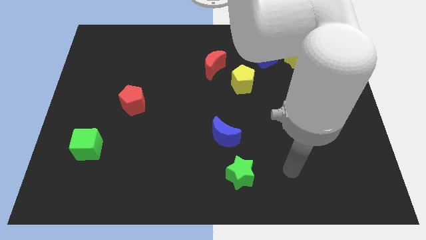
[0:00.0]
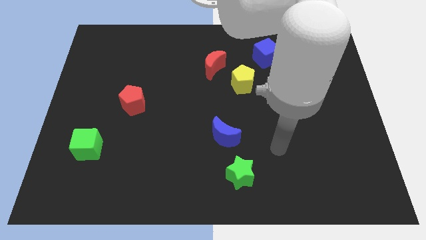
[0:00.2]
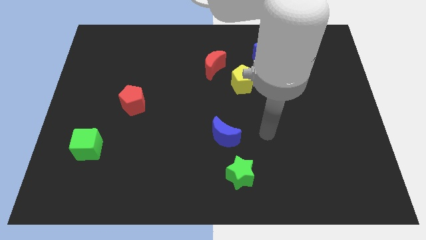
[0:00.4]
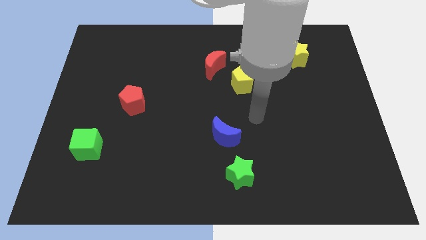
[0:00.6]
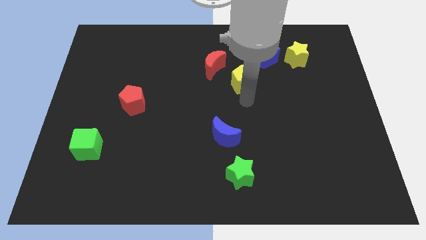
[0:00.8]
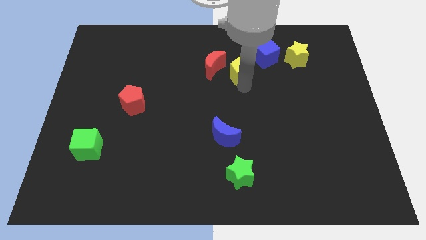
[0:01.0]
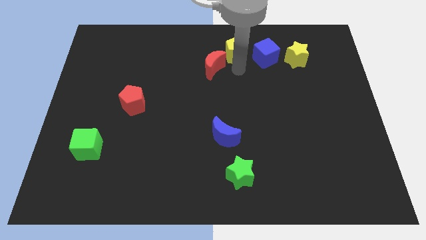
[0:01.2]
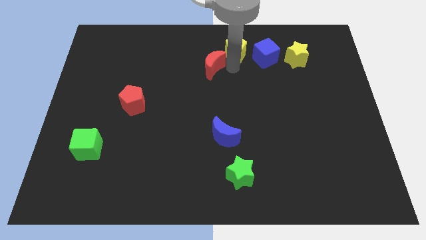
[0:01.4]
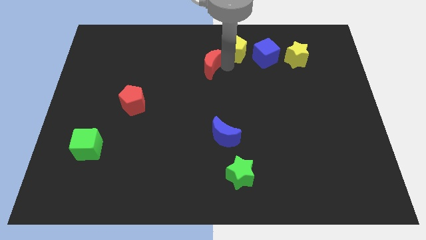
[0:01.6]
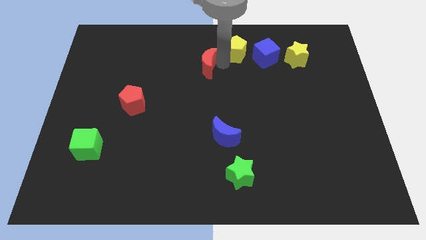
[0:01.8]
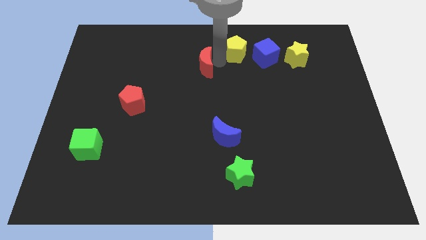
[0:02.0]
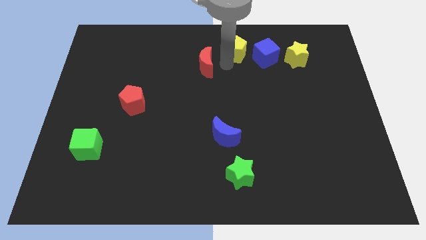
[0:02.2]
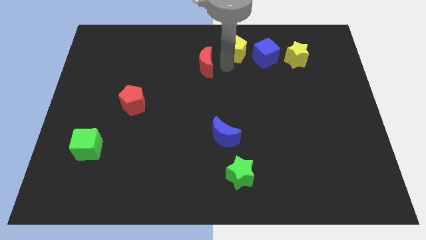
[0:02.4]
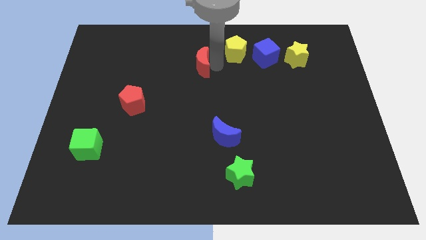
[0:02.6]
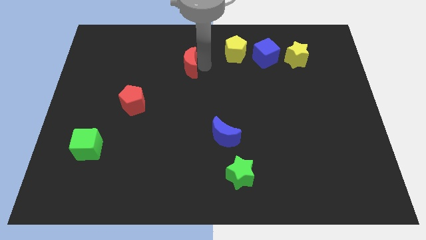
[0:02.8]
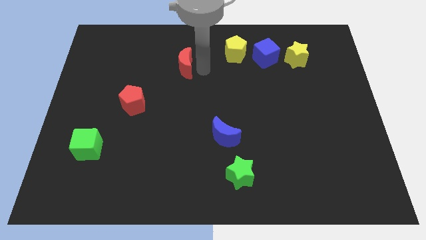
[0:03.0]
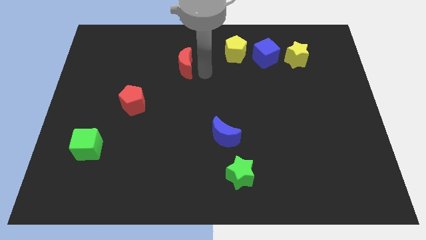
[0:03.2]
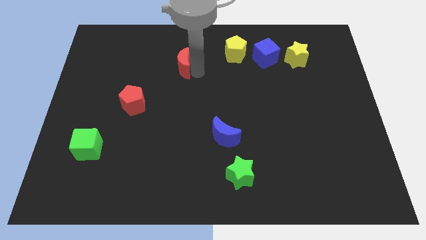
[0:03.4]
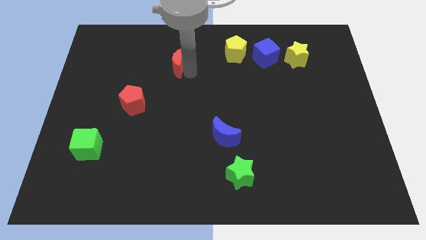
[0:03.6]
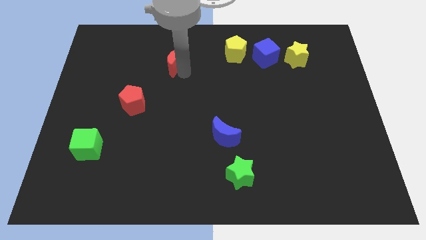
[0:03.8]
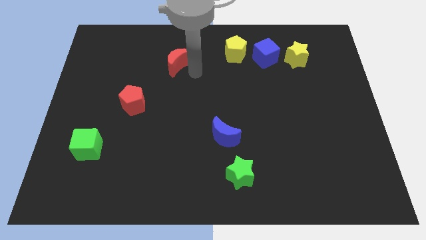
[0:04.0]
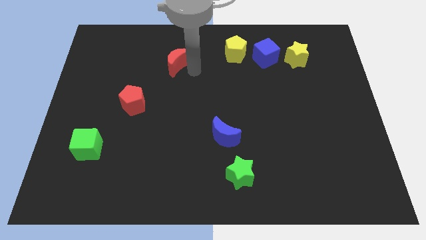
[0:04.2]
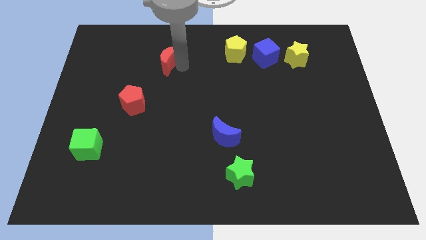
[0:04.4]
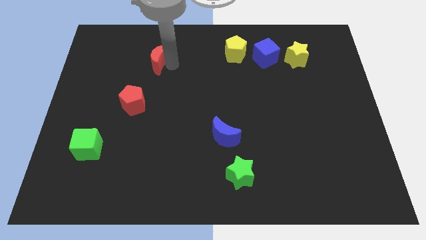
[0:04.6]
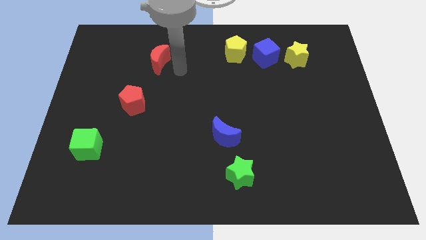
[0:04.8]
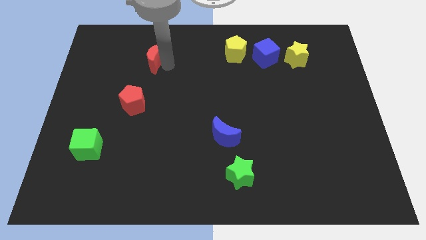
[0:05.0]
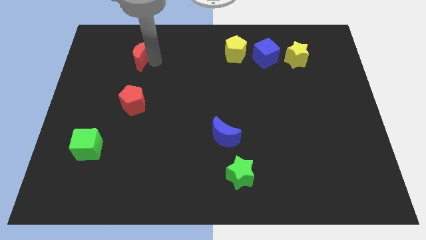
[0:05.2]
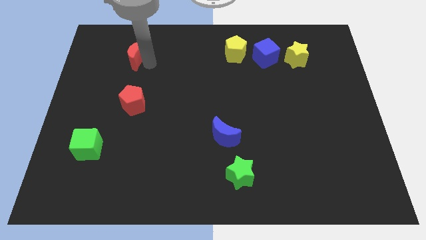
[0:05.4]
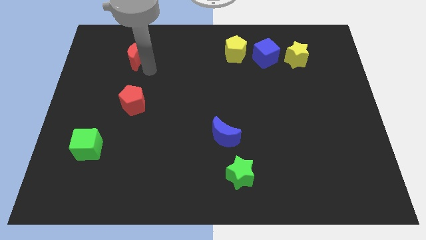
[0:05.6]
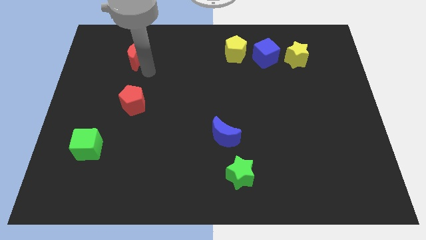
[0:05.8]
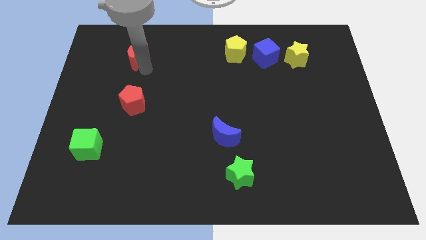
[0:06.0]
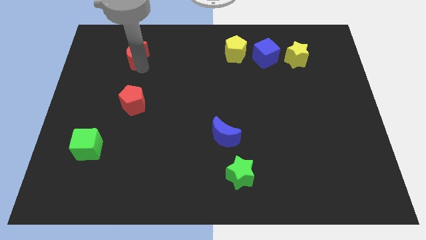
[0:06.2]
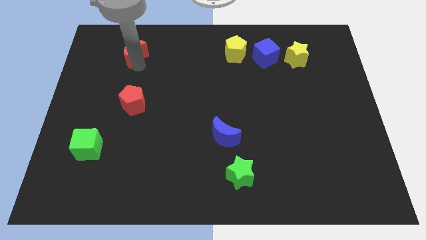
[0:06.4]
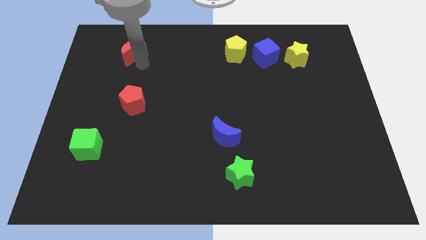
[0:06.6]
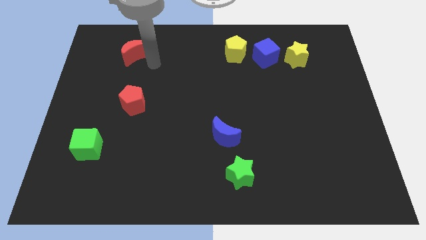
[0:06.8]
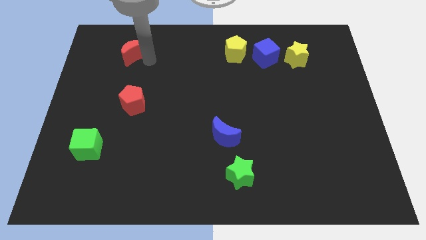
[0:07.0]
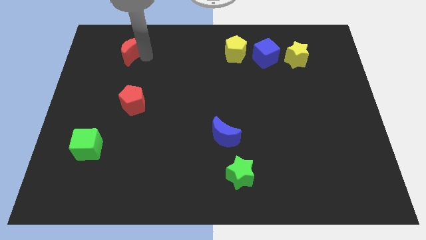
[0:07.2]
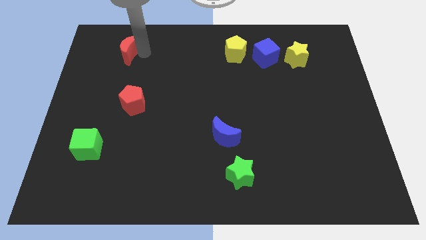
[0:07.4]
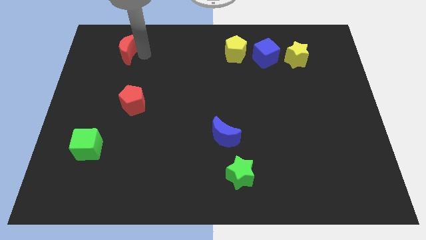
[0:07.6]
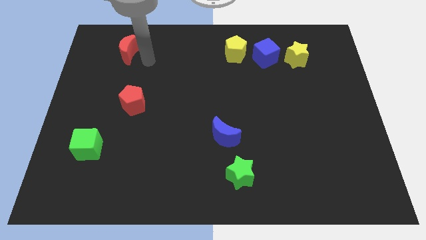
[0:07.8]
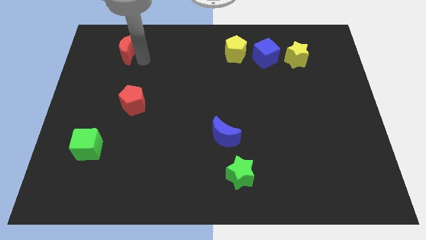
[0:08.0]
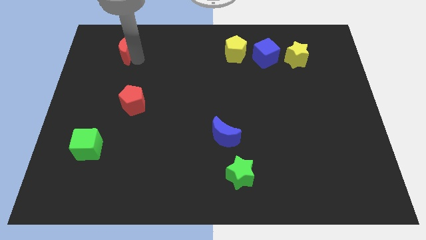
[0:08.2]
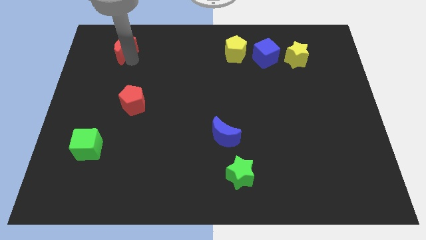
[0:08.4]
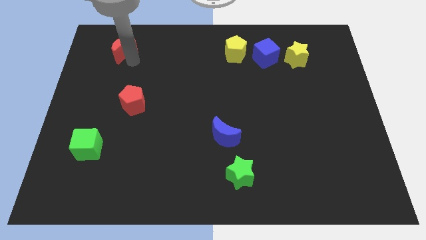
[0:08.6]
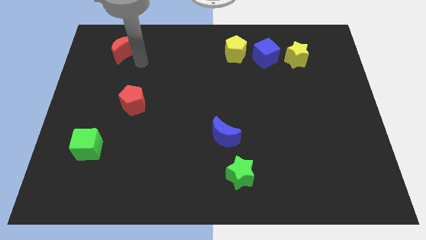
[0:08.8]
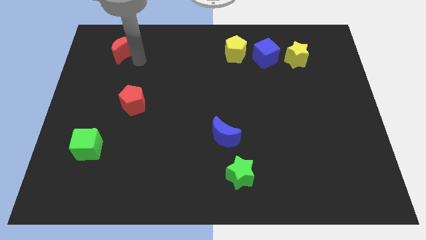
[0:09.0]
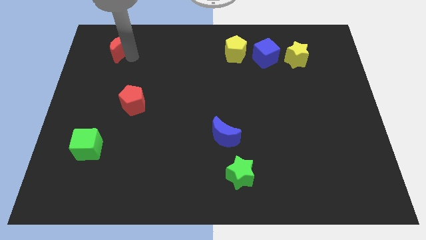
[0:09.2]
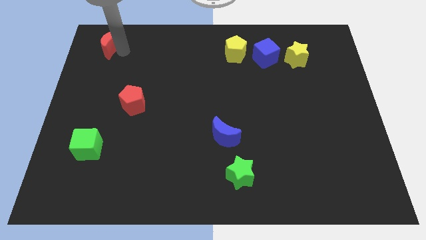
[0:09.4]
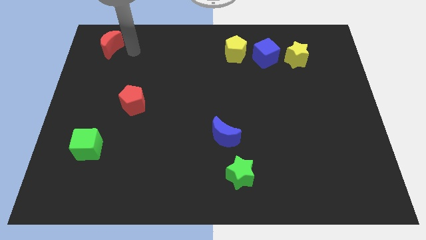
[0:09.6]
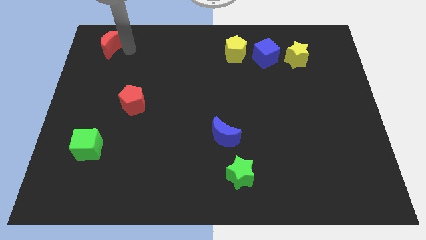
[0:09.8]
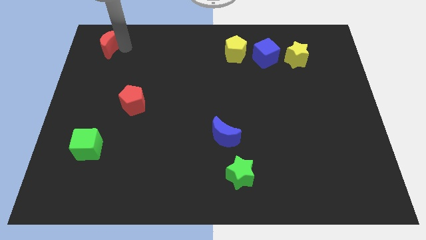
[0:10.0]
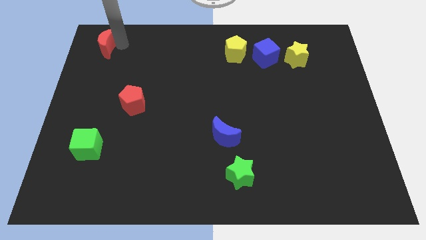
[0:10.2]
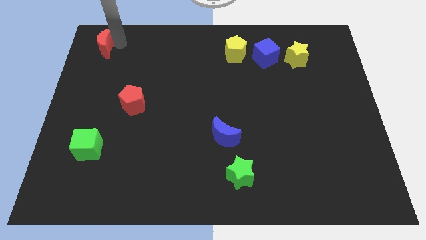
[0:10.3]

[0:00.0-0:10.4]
slide the red moon to the upper left corner

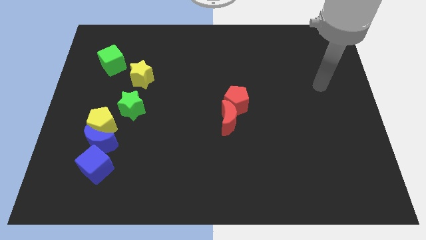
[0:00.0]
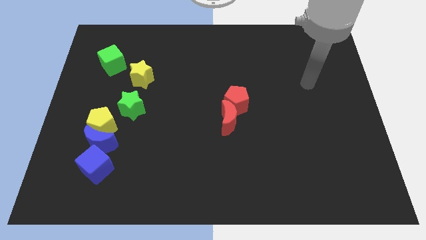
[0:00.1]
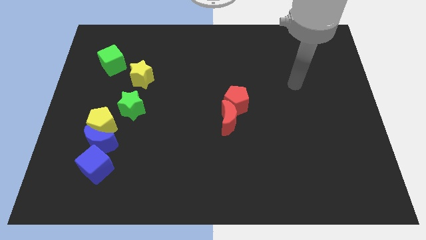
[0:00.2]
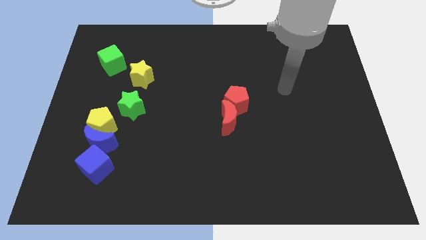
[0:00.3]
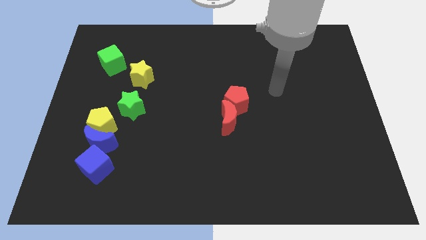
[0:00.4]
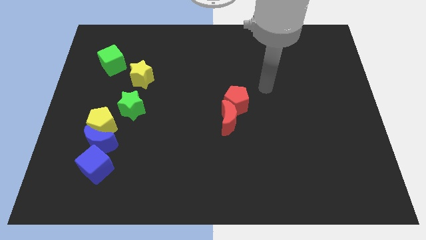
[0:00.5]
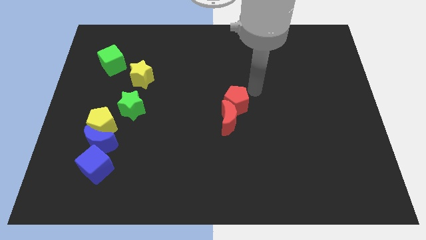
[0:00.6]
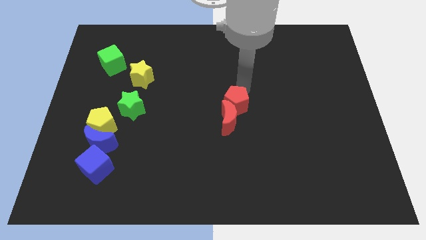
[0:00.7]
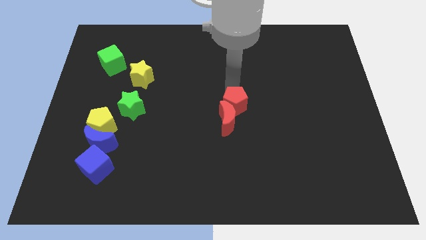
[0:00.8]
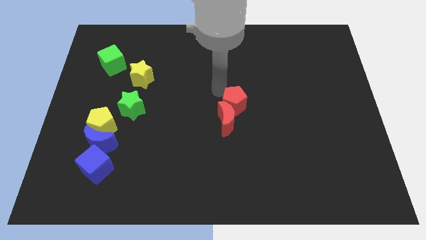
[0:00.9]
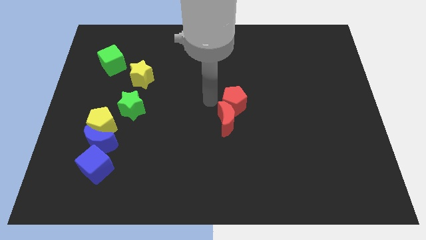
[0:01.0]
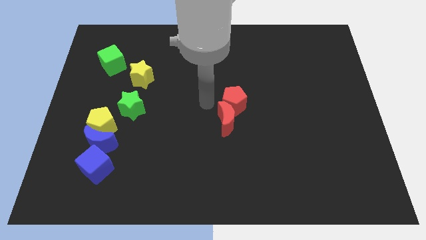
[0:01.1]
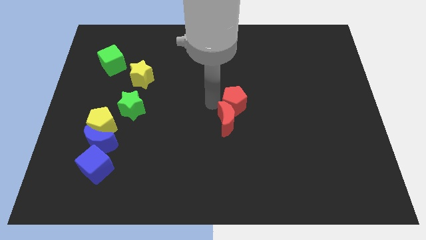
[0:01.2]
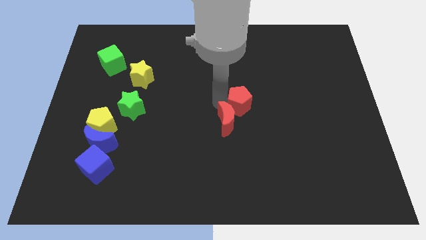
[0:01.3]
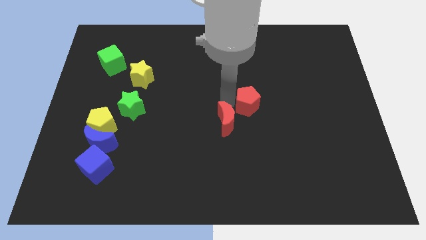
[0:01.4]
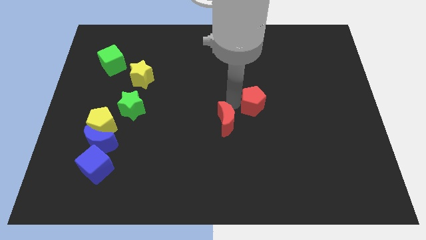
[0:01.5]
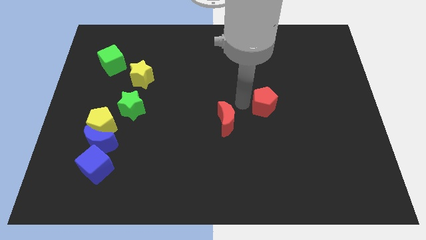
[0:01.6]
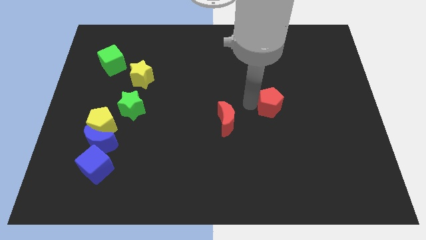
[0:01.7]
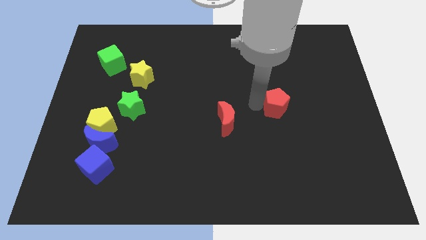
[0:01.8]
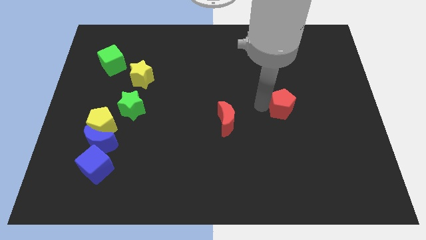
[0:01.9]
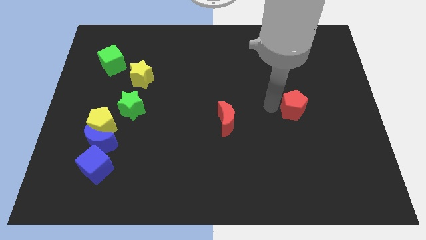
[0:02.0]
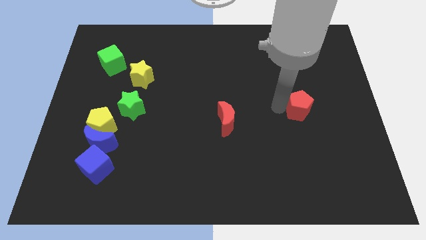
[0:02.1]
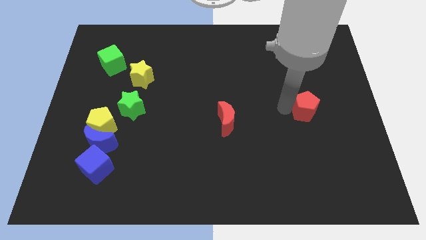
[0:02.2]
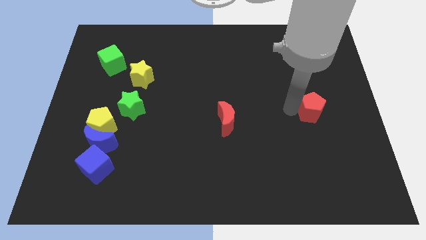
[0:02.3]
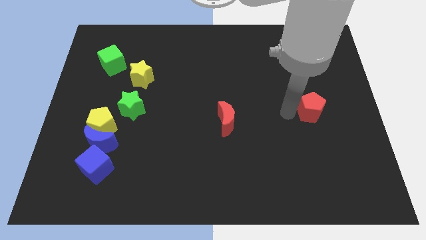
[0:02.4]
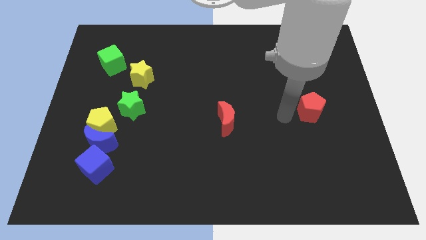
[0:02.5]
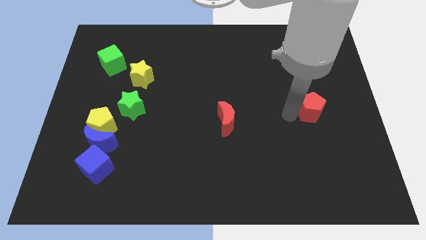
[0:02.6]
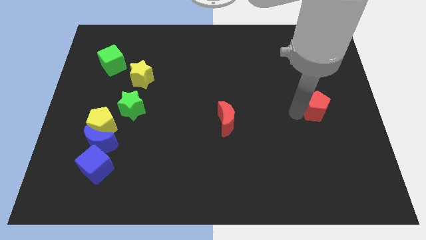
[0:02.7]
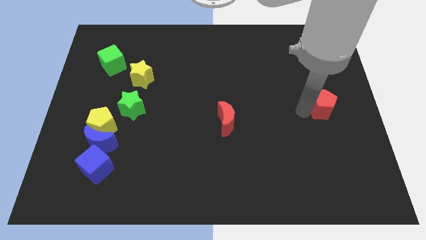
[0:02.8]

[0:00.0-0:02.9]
push the red pentagon to the right side of the board
